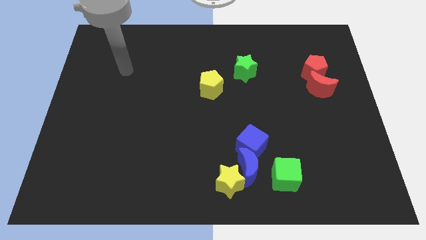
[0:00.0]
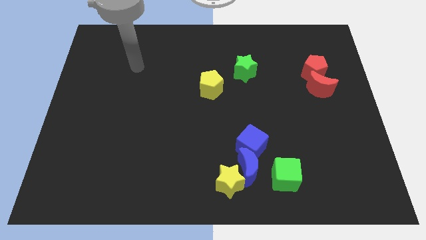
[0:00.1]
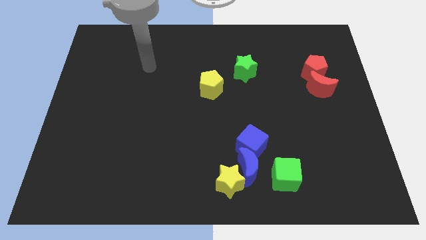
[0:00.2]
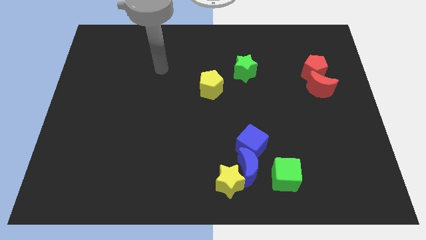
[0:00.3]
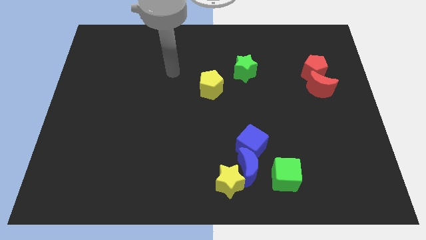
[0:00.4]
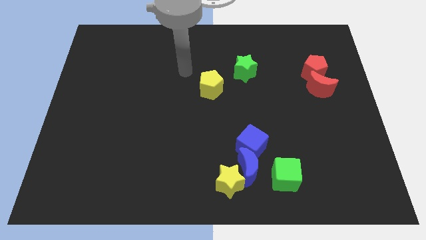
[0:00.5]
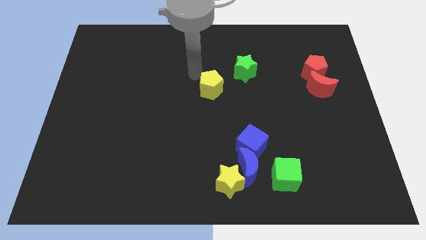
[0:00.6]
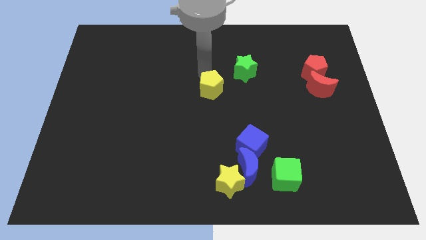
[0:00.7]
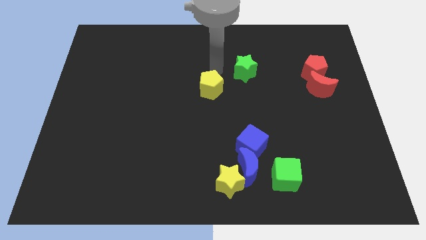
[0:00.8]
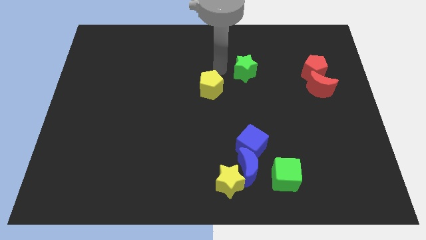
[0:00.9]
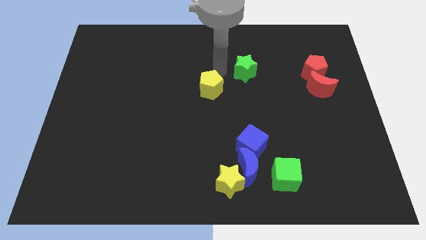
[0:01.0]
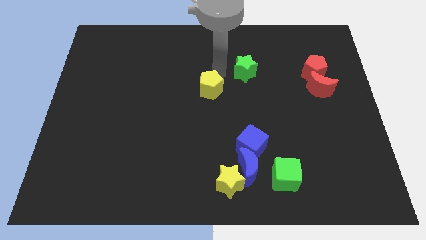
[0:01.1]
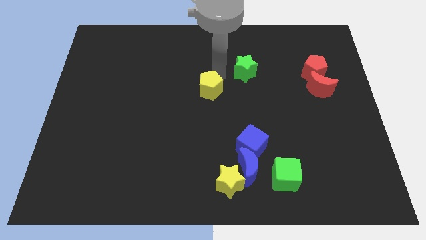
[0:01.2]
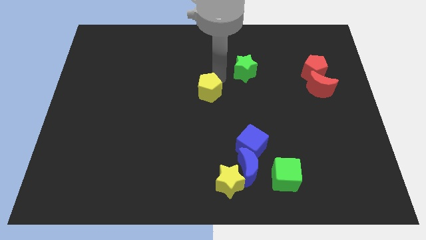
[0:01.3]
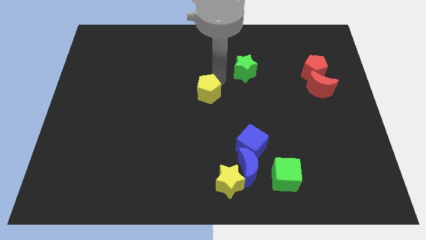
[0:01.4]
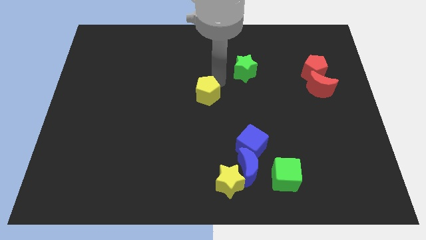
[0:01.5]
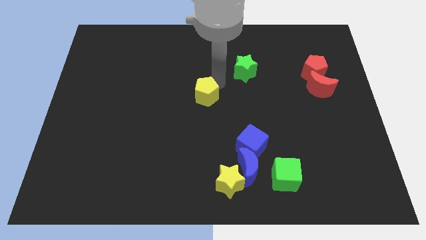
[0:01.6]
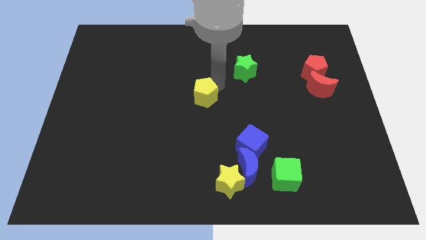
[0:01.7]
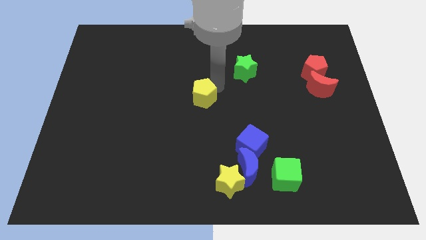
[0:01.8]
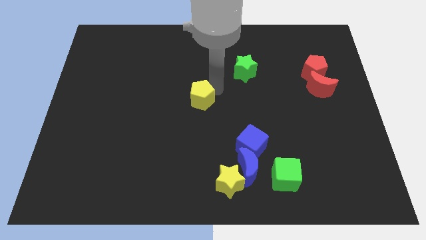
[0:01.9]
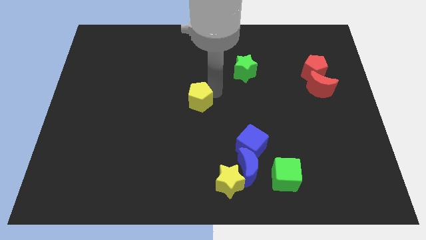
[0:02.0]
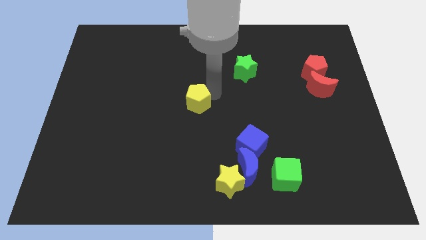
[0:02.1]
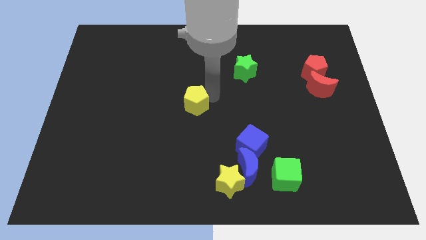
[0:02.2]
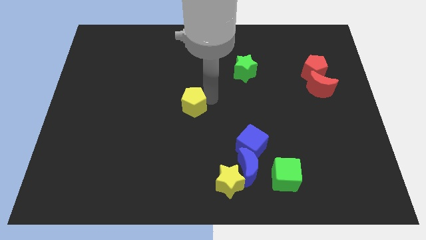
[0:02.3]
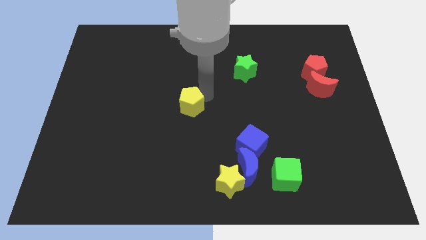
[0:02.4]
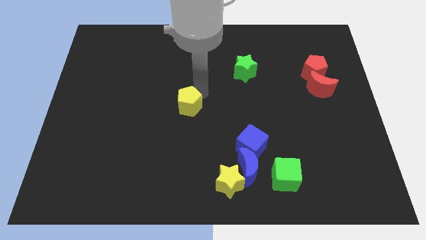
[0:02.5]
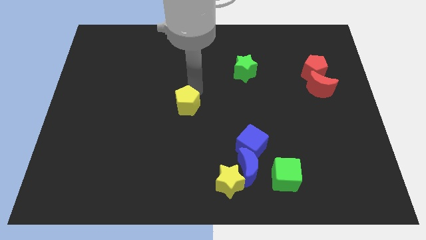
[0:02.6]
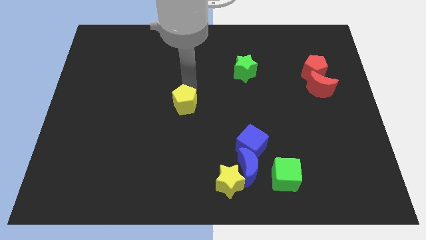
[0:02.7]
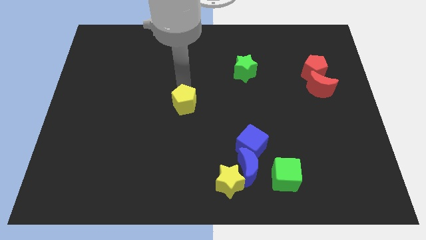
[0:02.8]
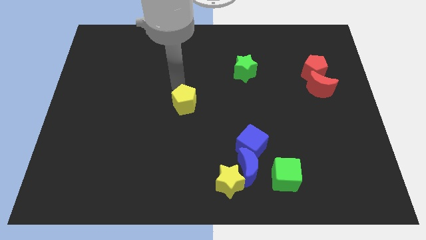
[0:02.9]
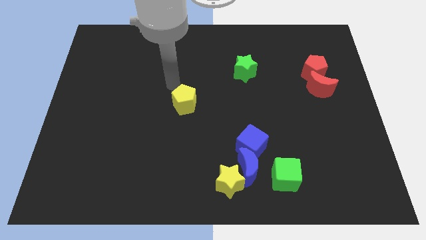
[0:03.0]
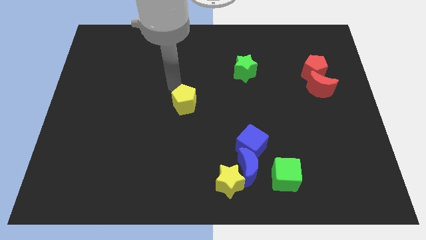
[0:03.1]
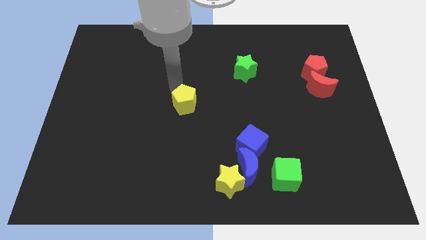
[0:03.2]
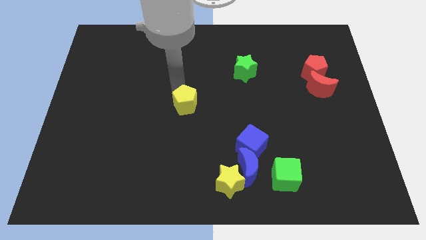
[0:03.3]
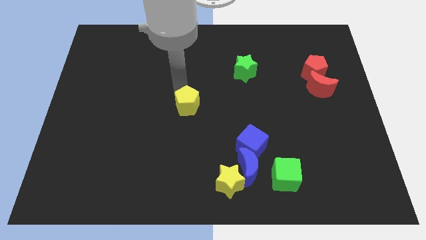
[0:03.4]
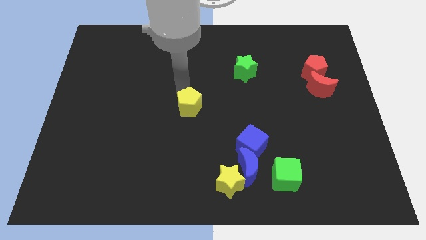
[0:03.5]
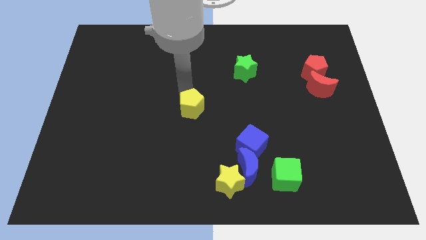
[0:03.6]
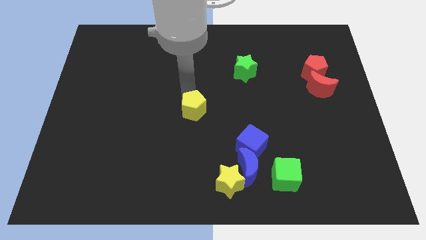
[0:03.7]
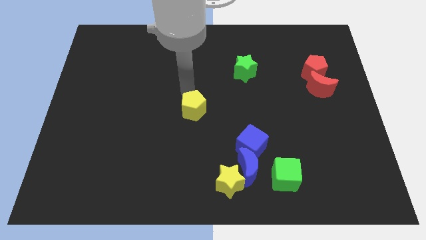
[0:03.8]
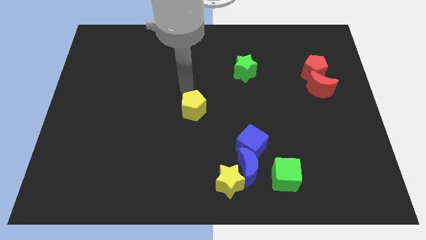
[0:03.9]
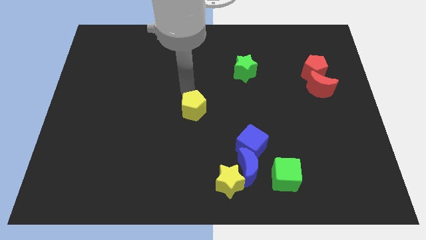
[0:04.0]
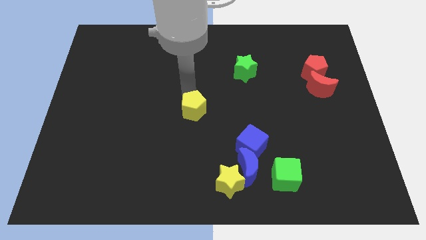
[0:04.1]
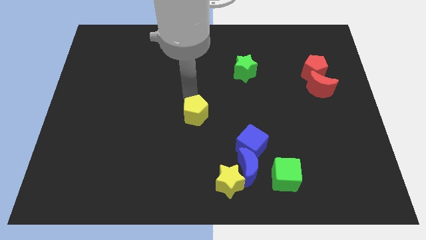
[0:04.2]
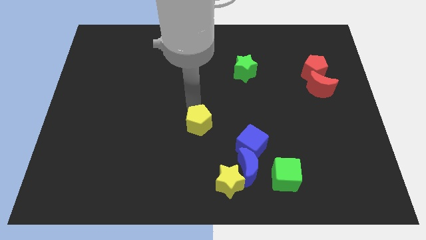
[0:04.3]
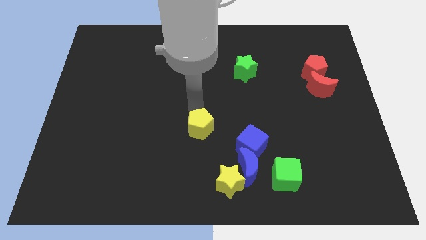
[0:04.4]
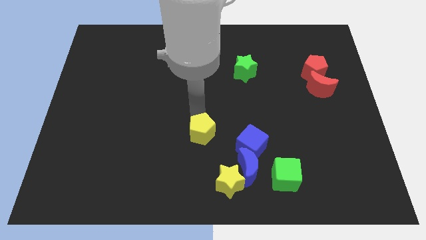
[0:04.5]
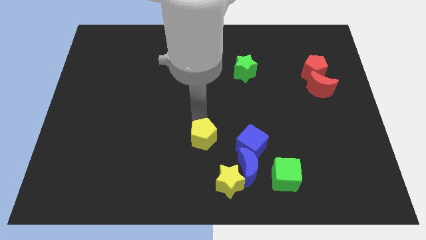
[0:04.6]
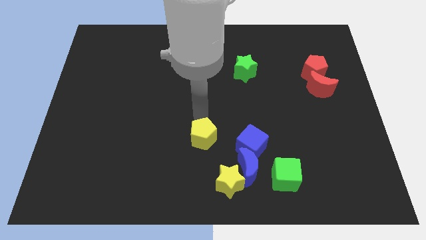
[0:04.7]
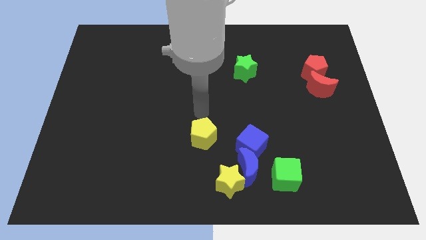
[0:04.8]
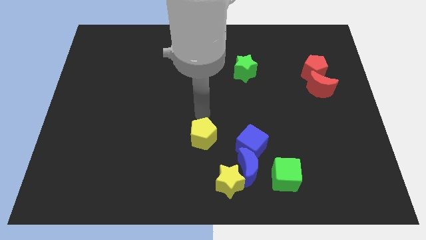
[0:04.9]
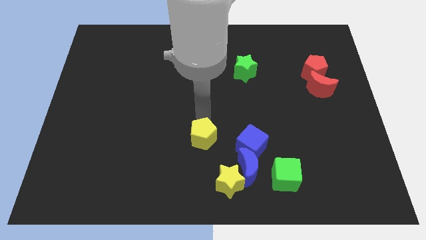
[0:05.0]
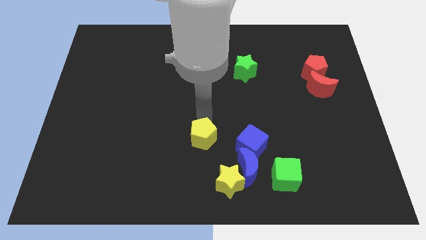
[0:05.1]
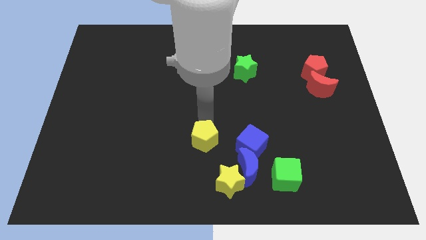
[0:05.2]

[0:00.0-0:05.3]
put the yellow pentagon to the top left side of the yellow star

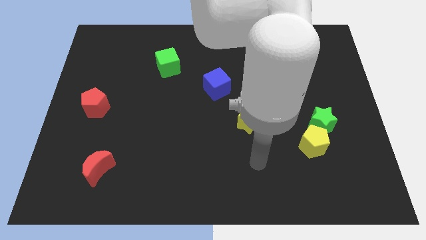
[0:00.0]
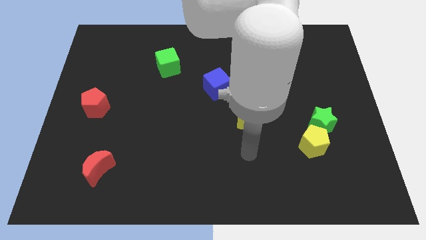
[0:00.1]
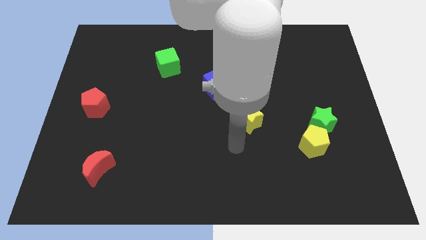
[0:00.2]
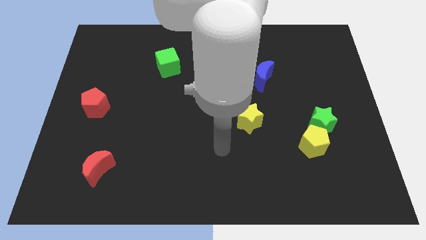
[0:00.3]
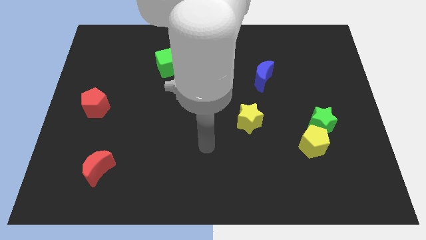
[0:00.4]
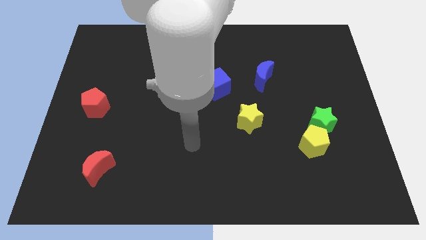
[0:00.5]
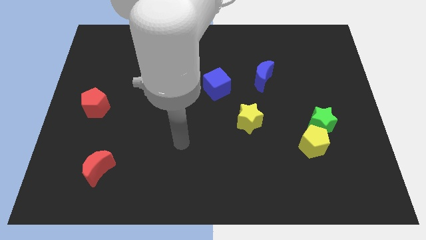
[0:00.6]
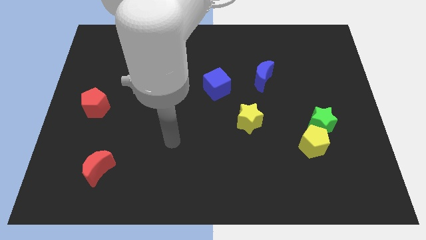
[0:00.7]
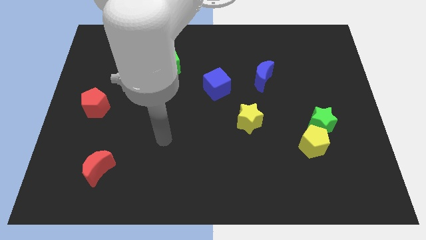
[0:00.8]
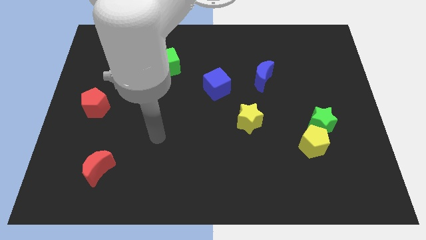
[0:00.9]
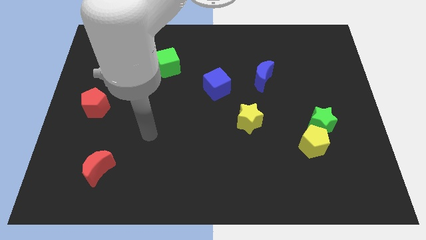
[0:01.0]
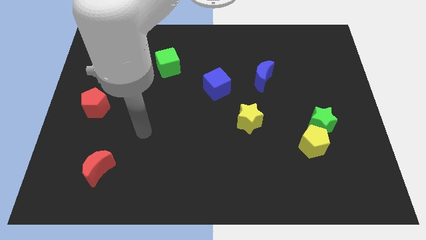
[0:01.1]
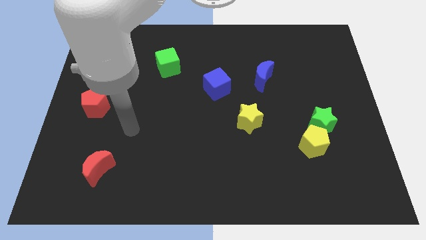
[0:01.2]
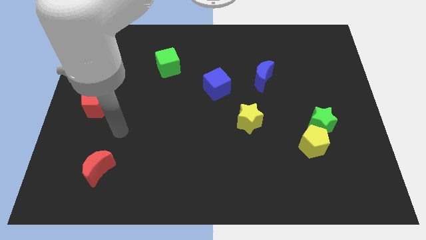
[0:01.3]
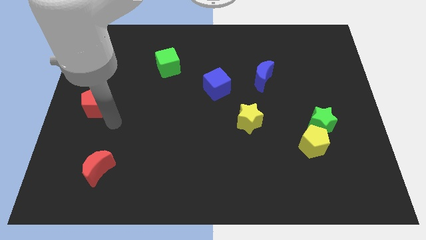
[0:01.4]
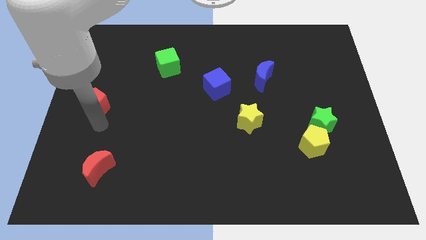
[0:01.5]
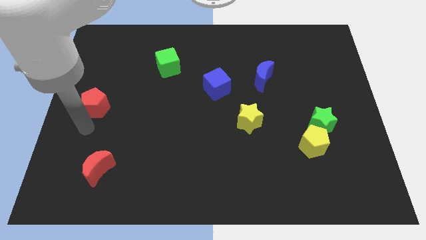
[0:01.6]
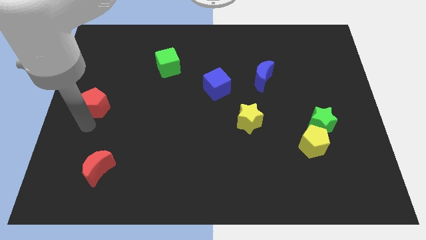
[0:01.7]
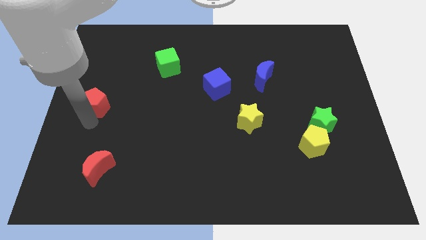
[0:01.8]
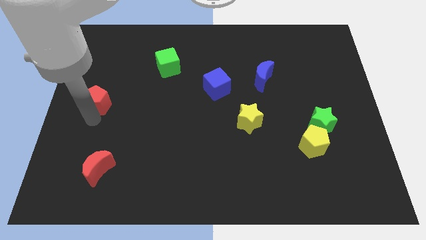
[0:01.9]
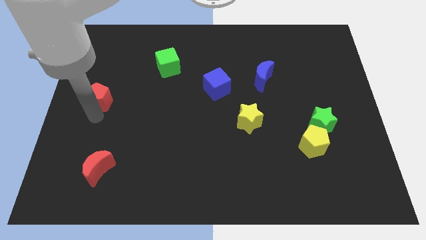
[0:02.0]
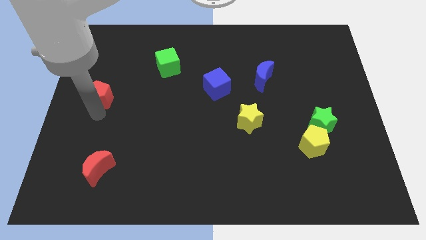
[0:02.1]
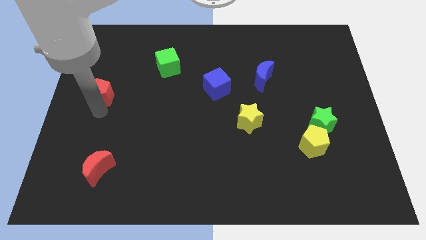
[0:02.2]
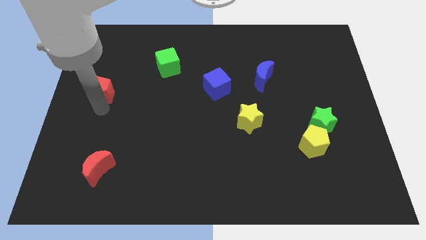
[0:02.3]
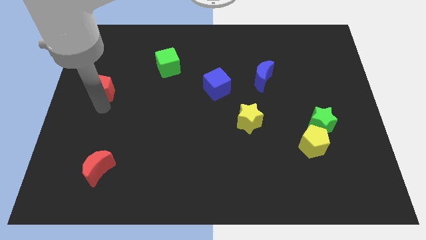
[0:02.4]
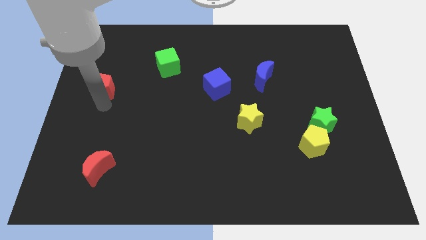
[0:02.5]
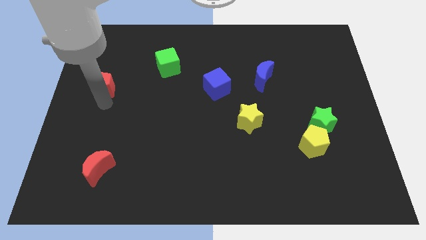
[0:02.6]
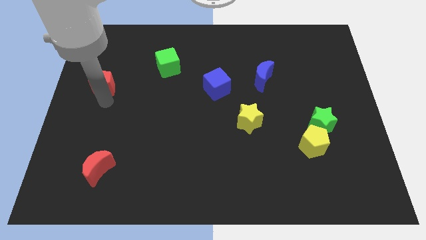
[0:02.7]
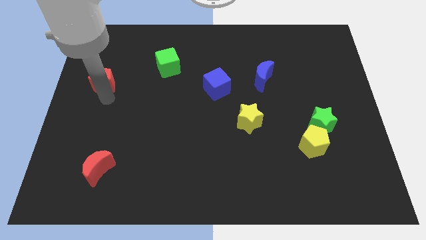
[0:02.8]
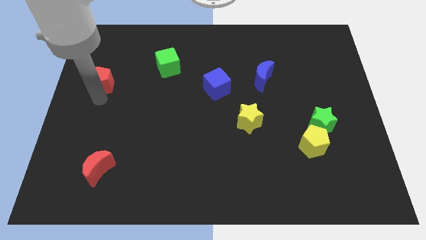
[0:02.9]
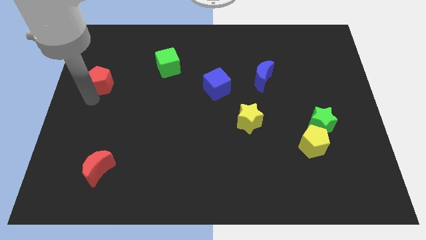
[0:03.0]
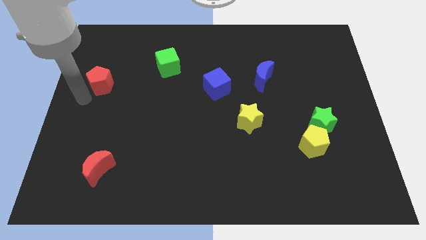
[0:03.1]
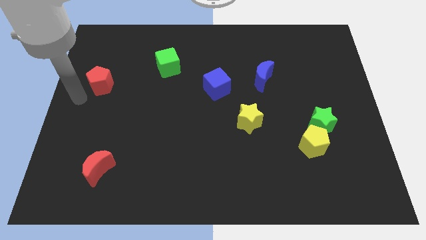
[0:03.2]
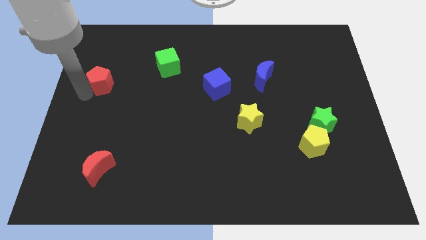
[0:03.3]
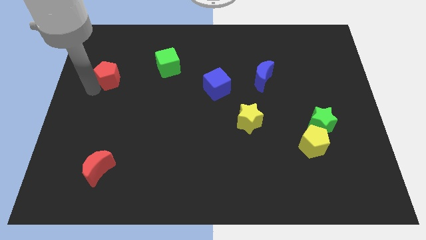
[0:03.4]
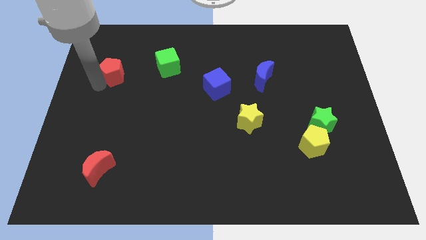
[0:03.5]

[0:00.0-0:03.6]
slide the red pentagon just left of the green cube
